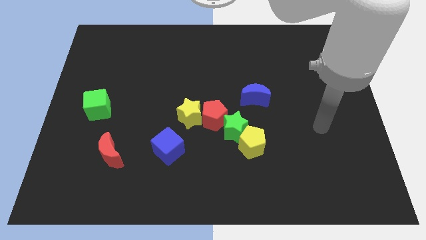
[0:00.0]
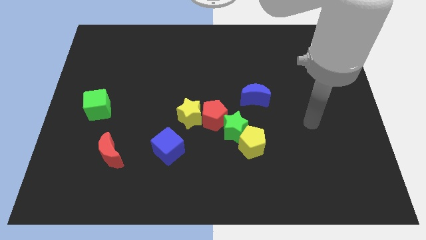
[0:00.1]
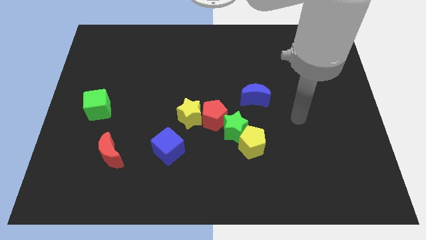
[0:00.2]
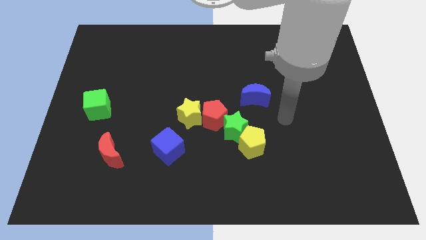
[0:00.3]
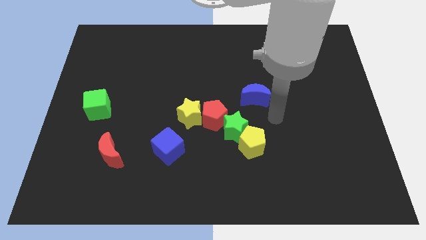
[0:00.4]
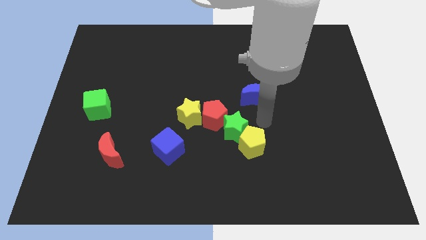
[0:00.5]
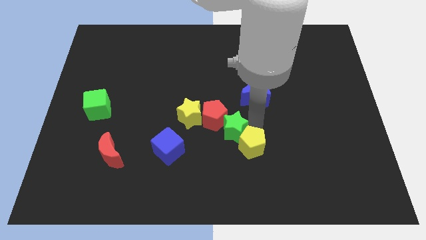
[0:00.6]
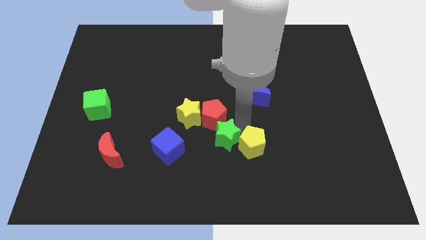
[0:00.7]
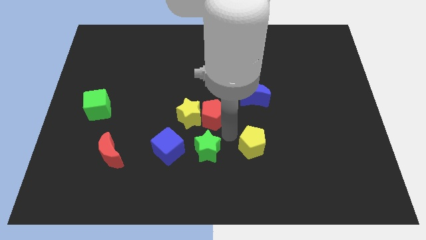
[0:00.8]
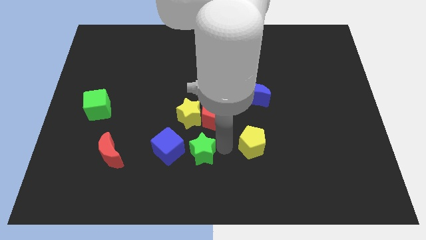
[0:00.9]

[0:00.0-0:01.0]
pull the yellow pentagon apart from the green star

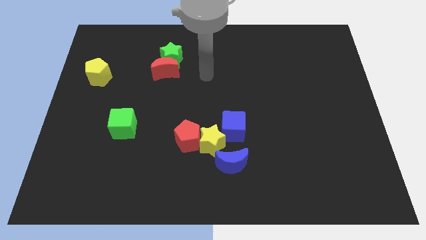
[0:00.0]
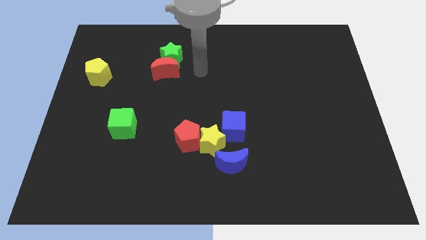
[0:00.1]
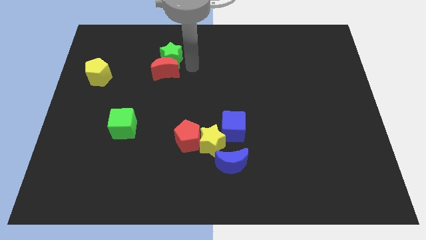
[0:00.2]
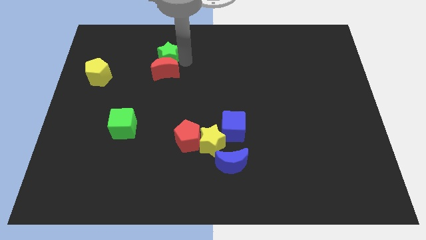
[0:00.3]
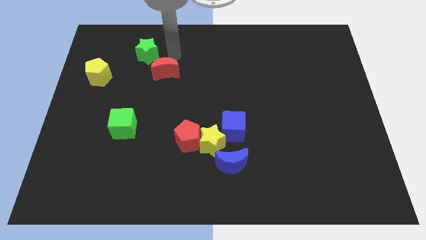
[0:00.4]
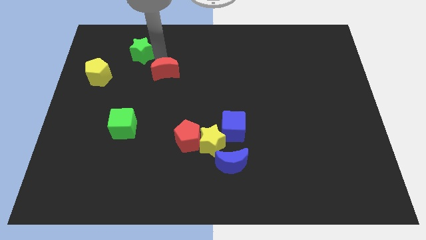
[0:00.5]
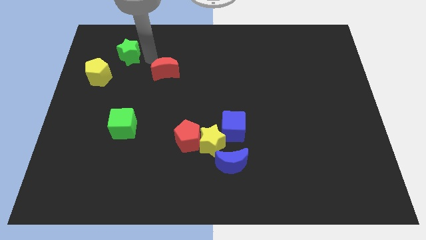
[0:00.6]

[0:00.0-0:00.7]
move the red moon away from the green star

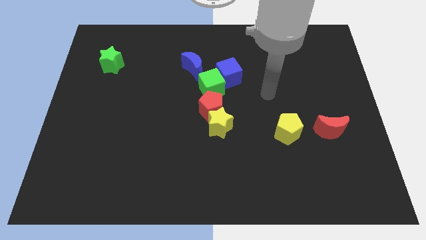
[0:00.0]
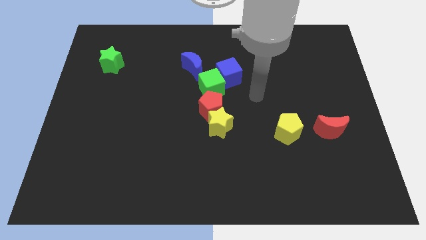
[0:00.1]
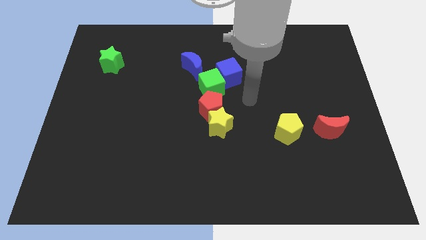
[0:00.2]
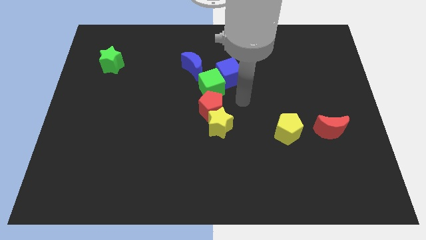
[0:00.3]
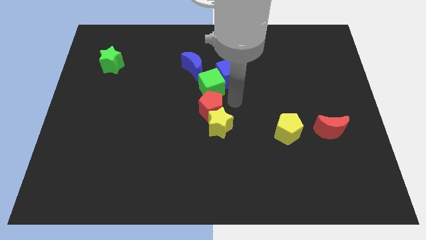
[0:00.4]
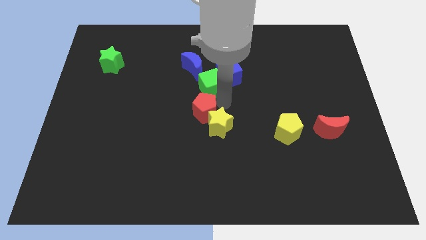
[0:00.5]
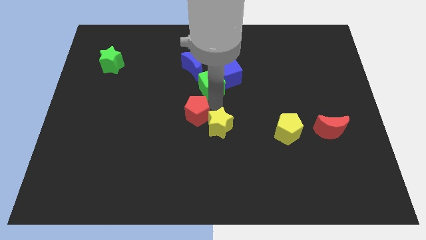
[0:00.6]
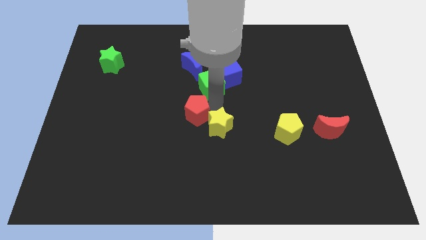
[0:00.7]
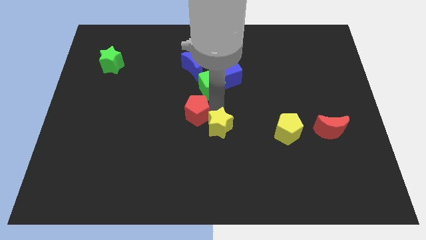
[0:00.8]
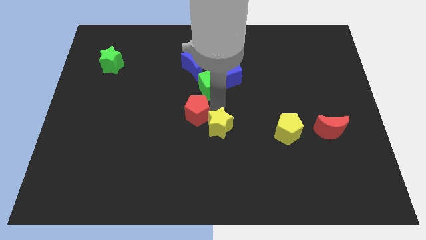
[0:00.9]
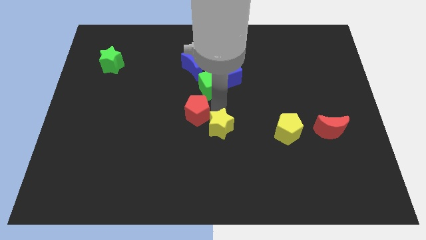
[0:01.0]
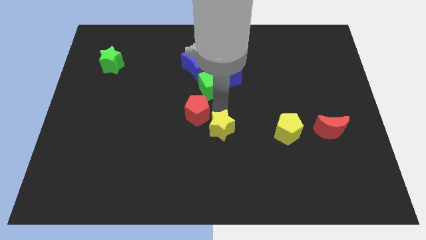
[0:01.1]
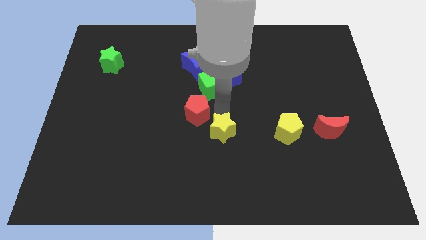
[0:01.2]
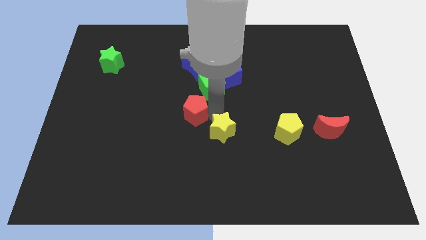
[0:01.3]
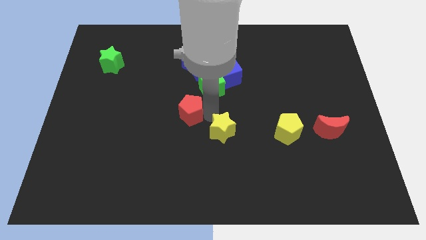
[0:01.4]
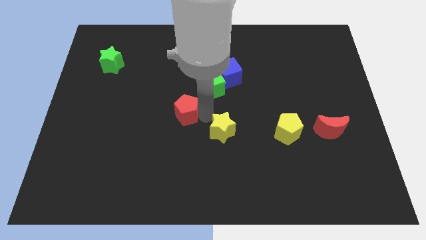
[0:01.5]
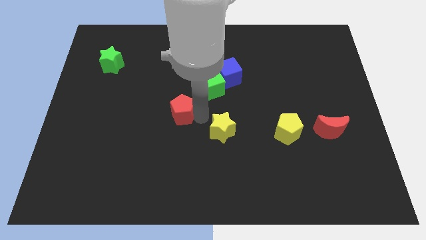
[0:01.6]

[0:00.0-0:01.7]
pull the yellow star apart from the red pentagon

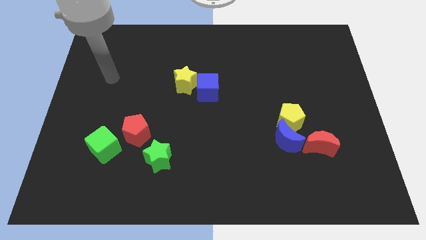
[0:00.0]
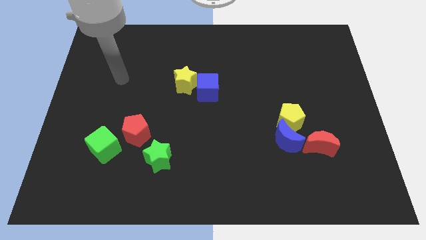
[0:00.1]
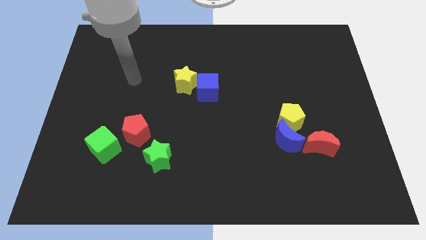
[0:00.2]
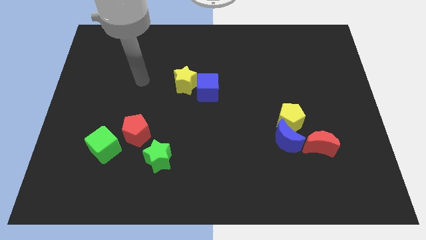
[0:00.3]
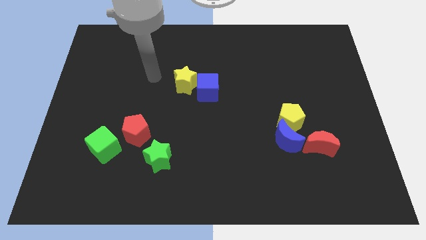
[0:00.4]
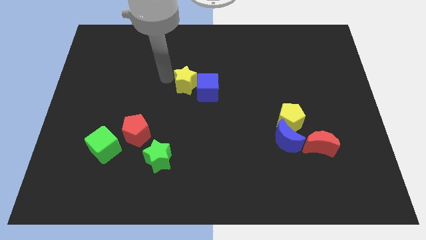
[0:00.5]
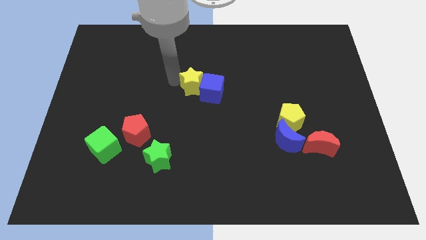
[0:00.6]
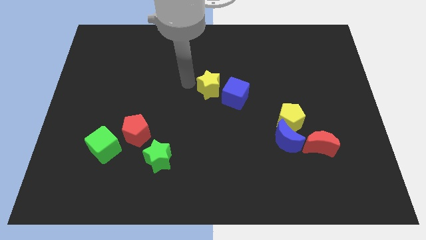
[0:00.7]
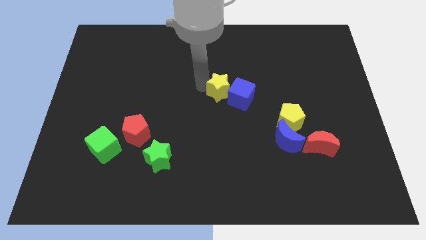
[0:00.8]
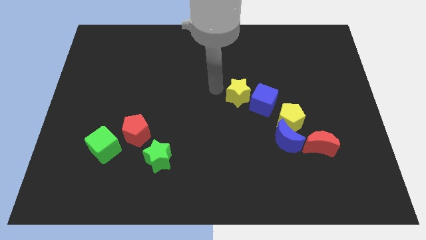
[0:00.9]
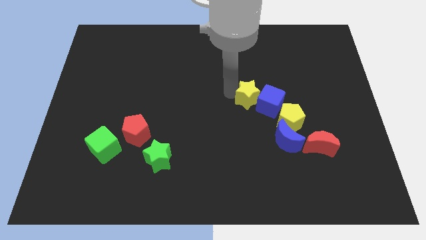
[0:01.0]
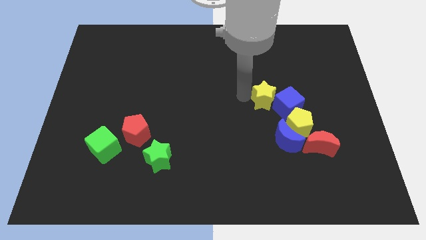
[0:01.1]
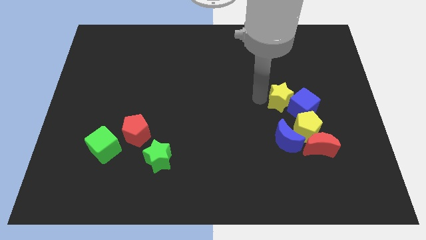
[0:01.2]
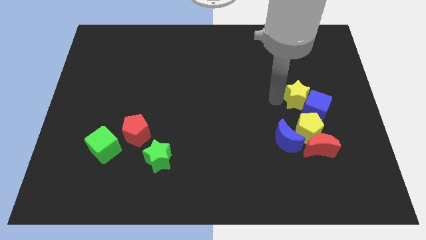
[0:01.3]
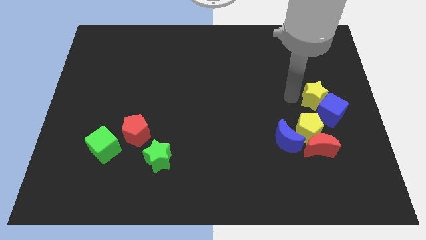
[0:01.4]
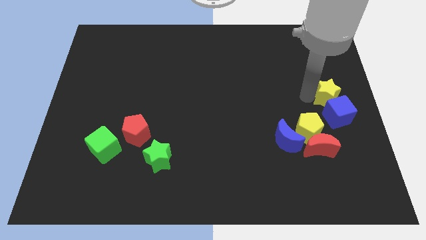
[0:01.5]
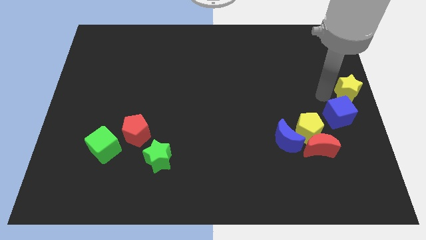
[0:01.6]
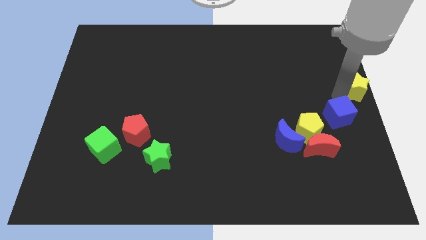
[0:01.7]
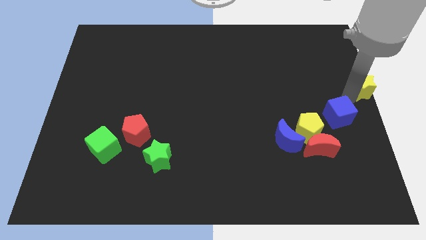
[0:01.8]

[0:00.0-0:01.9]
move the blue cube away from the yellow star

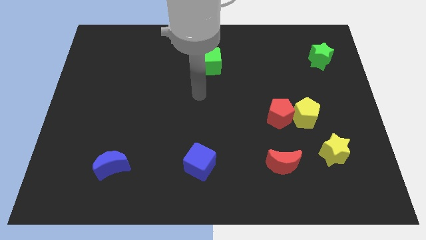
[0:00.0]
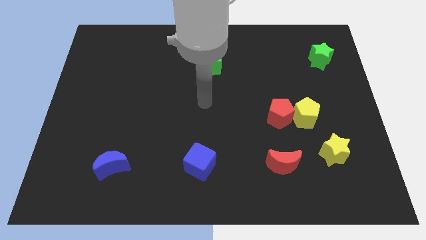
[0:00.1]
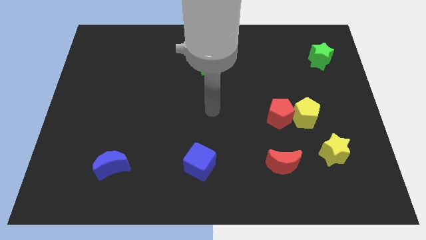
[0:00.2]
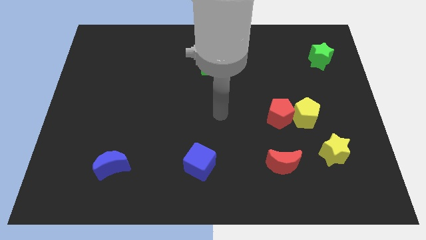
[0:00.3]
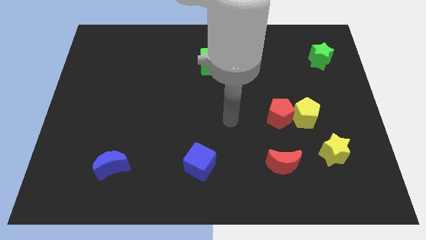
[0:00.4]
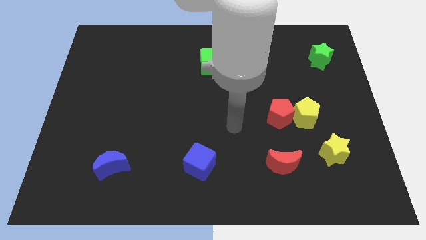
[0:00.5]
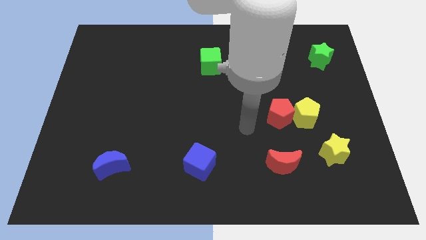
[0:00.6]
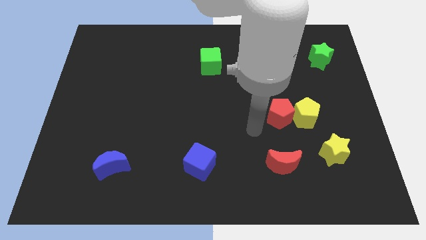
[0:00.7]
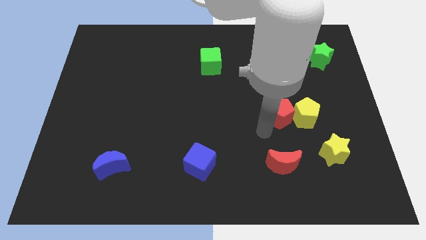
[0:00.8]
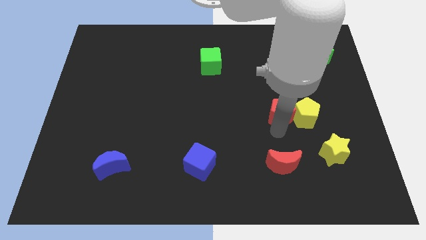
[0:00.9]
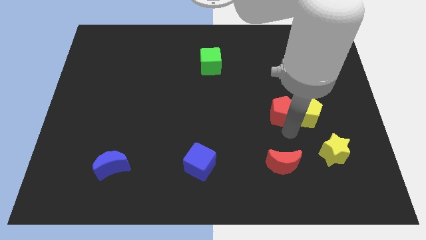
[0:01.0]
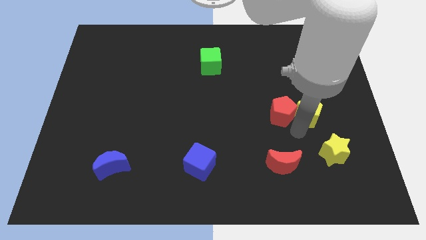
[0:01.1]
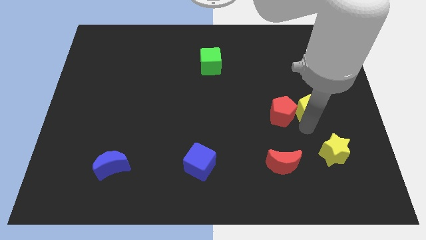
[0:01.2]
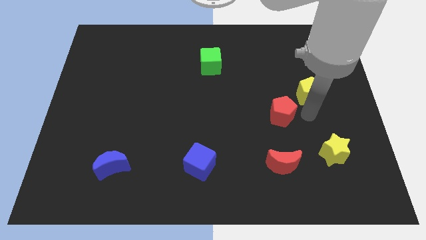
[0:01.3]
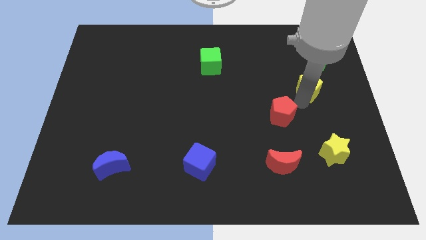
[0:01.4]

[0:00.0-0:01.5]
pull the red pentagon apart from the yellow pentagon

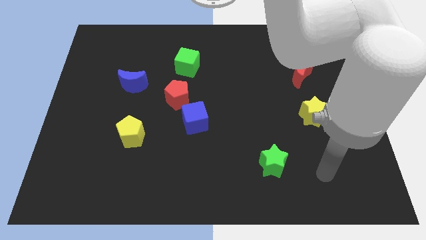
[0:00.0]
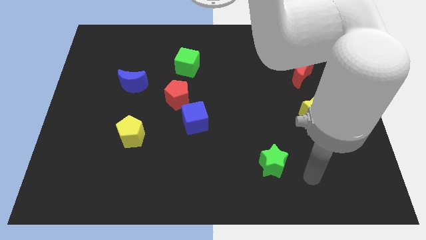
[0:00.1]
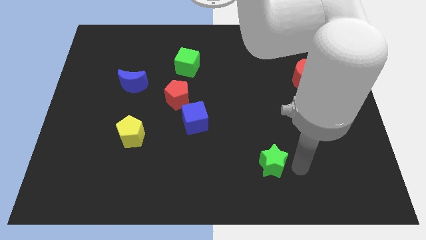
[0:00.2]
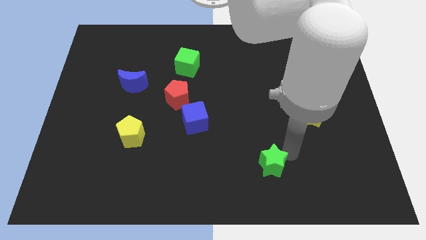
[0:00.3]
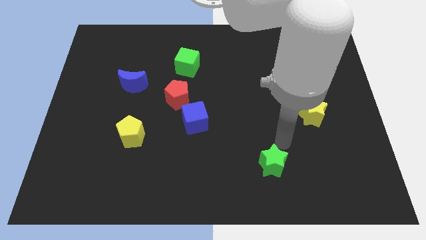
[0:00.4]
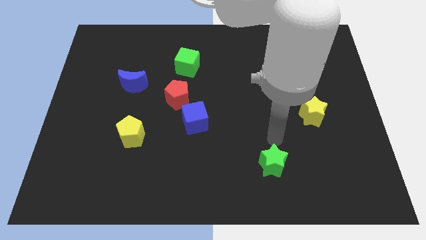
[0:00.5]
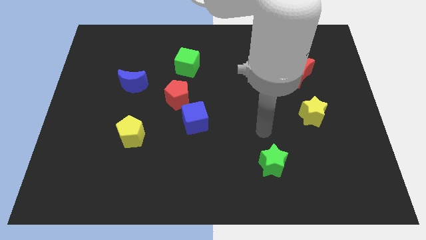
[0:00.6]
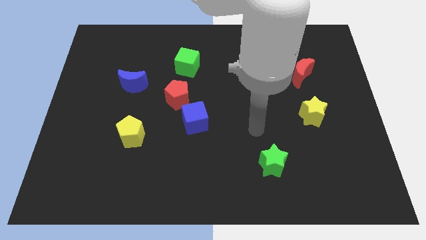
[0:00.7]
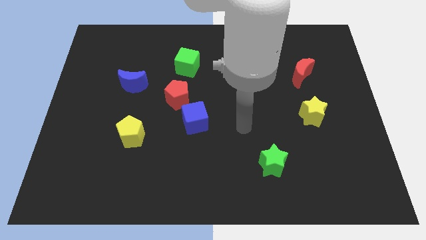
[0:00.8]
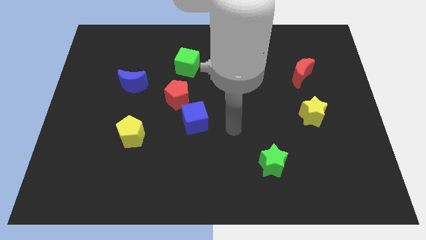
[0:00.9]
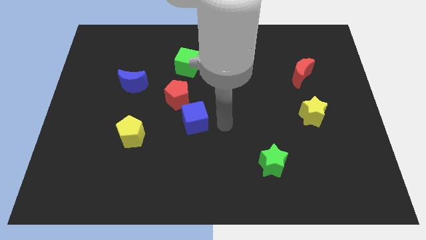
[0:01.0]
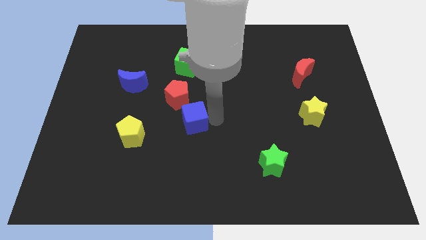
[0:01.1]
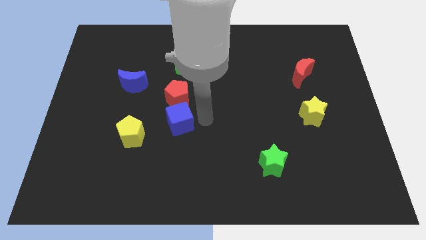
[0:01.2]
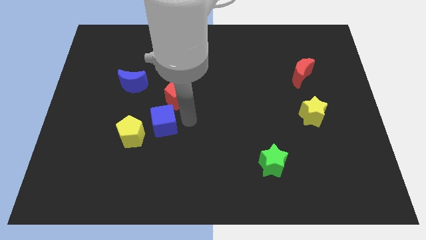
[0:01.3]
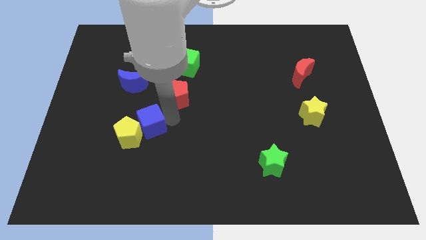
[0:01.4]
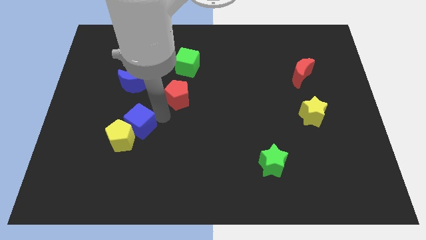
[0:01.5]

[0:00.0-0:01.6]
pull the red pentagon apart from the blue cube

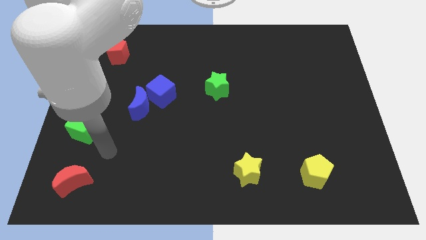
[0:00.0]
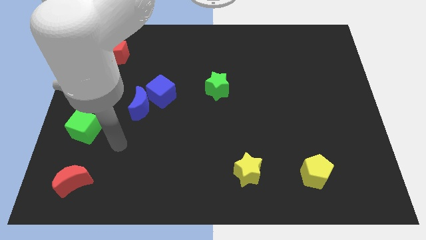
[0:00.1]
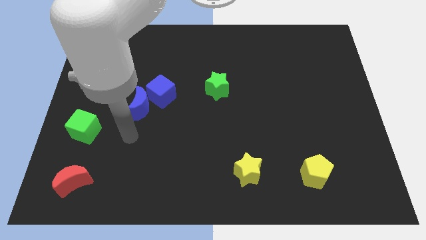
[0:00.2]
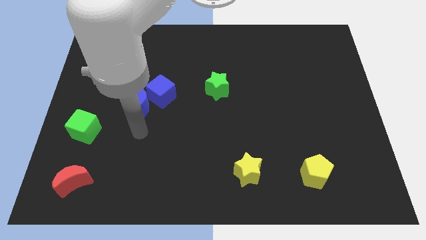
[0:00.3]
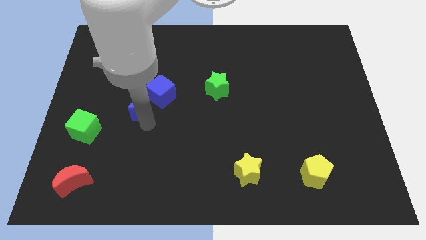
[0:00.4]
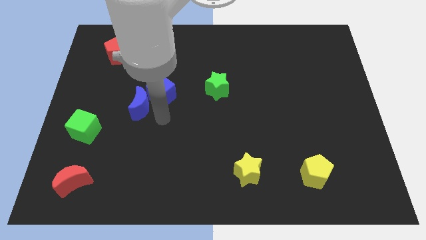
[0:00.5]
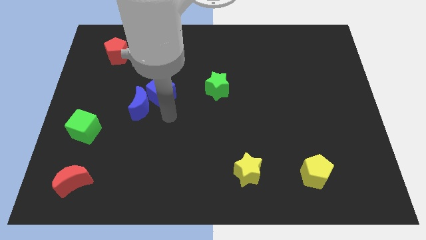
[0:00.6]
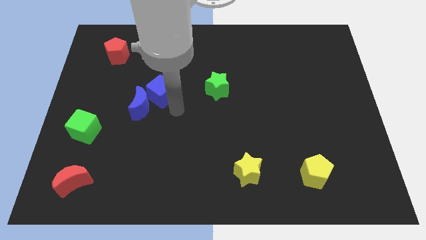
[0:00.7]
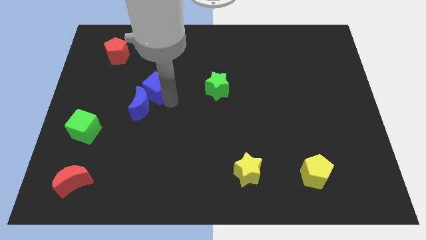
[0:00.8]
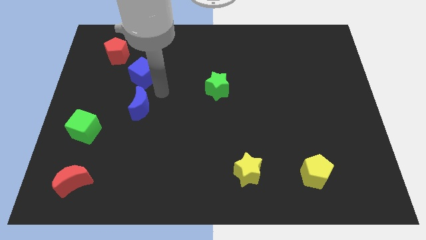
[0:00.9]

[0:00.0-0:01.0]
pull the blue moon apart from the blue cube

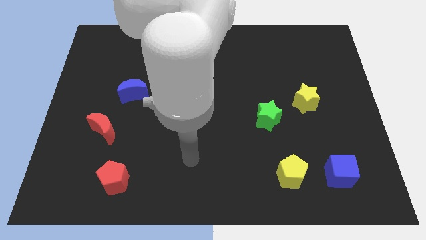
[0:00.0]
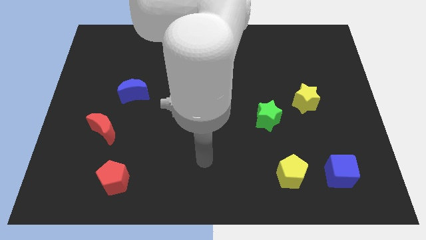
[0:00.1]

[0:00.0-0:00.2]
move the blue cube away from the yellow pentagon
